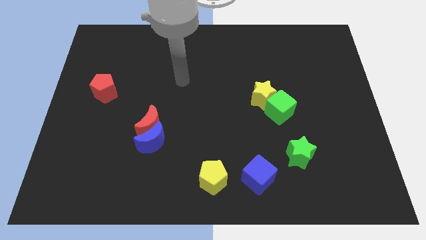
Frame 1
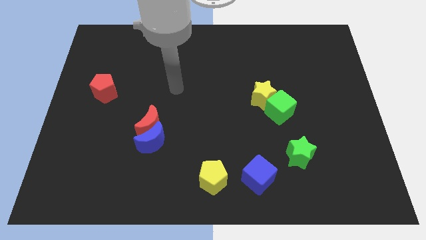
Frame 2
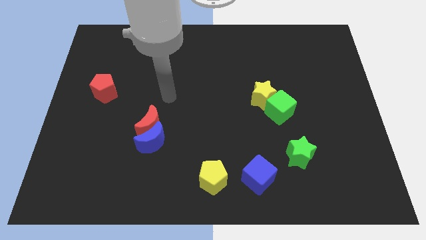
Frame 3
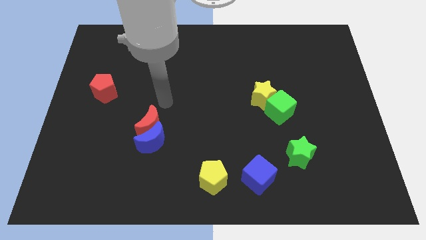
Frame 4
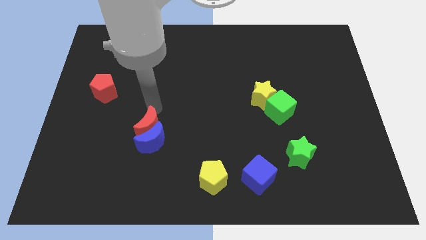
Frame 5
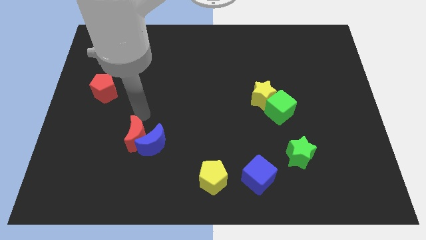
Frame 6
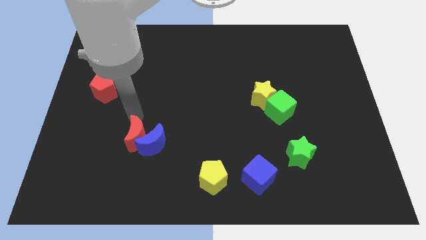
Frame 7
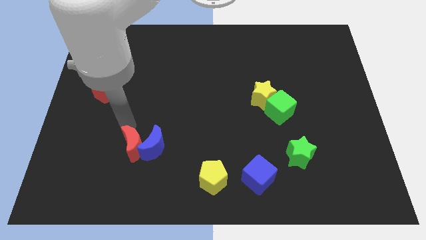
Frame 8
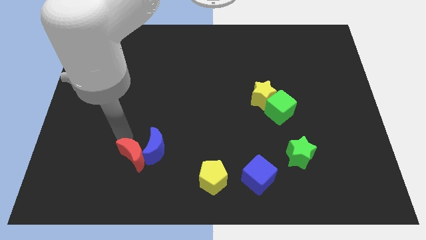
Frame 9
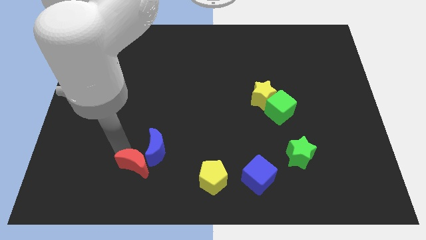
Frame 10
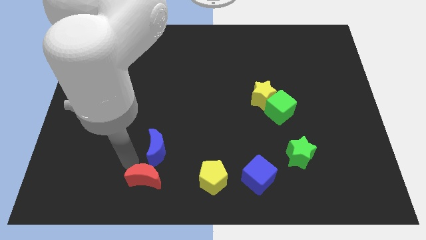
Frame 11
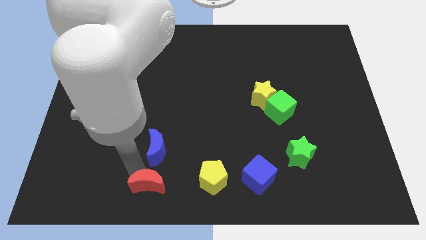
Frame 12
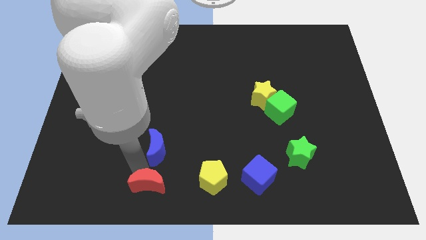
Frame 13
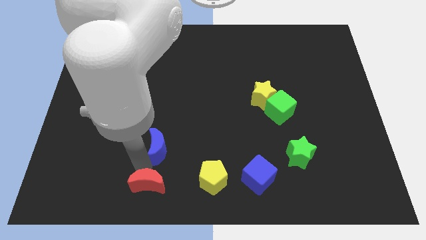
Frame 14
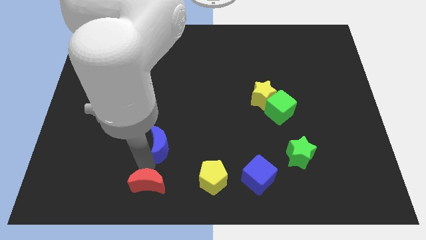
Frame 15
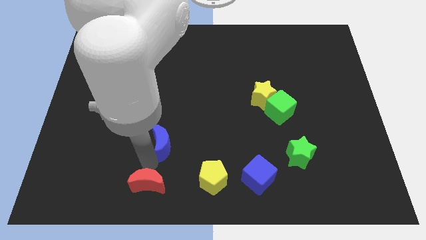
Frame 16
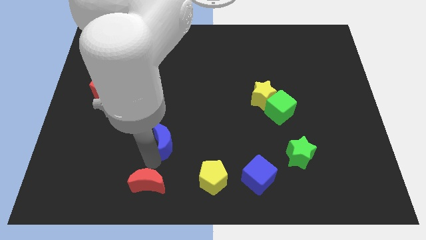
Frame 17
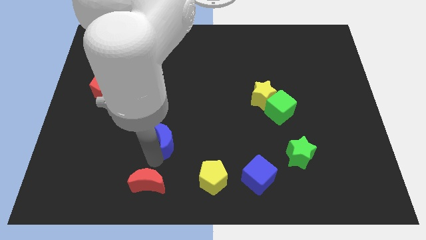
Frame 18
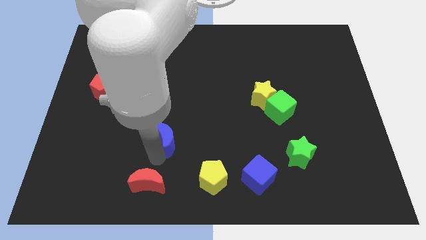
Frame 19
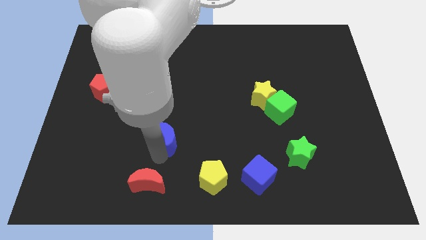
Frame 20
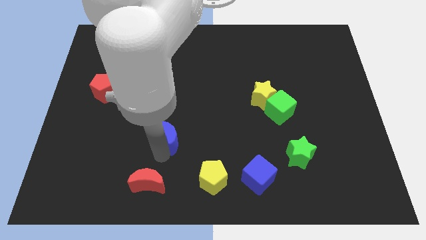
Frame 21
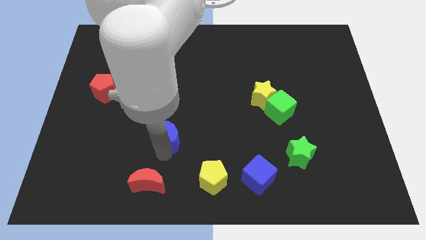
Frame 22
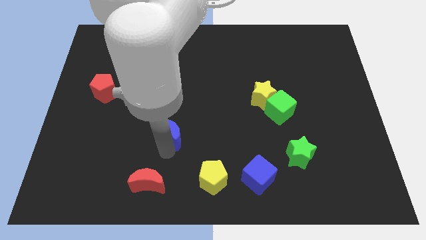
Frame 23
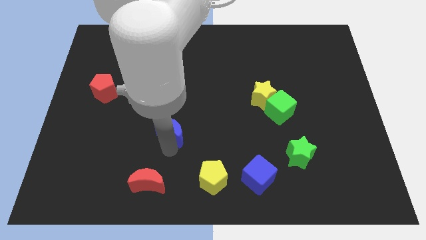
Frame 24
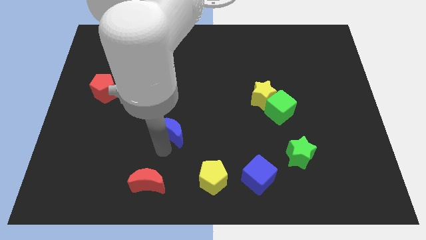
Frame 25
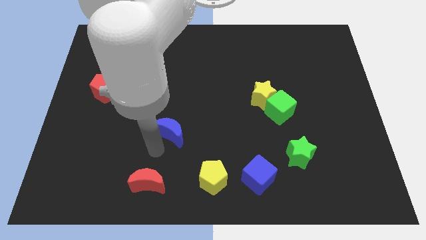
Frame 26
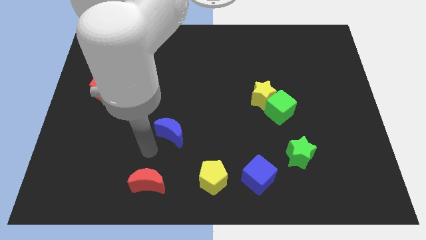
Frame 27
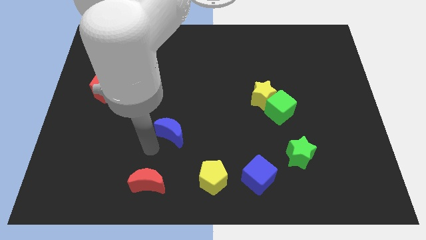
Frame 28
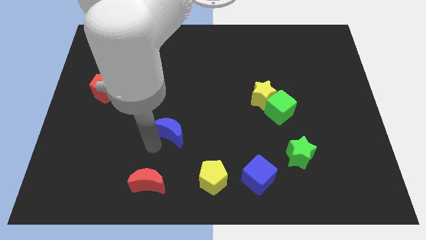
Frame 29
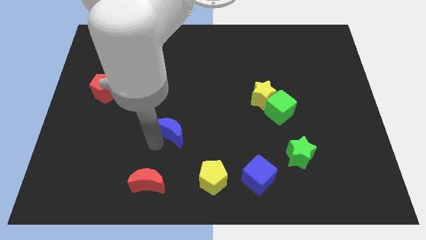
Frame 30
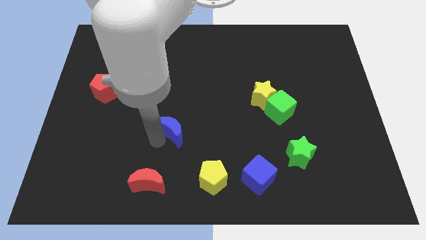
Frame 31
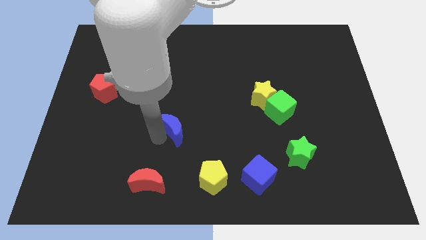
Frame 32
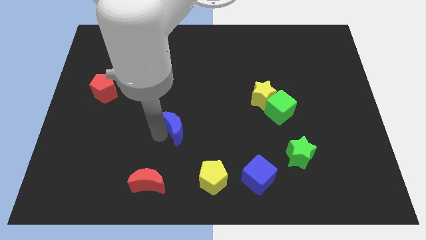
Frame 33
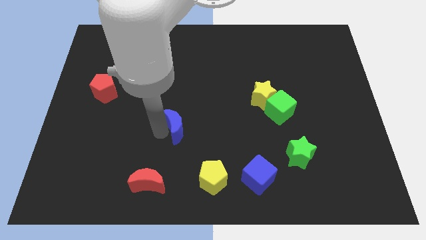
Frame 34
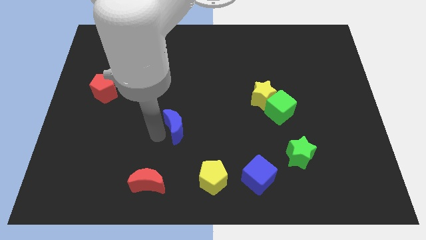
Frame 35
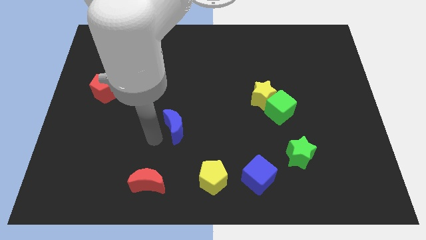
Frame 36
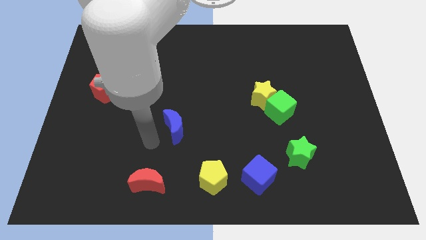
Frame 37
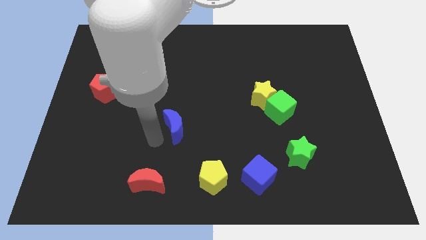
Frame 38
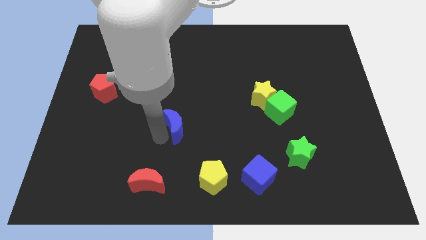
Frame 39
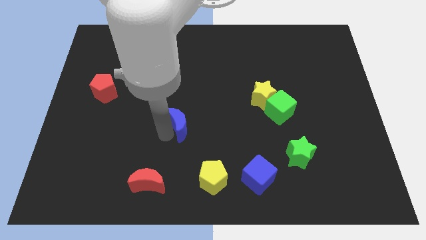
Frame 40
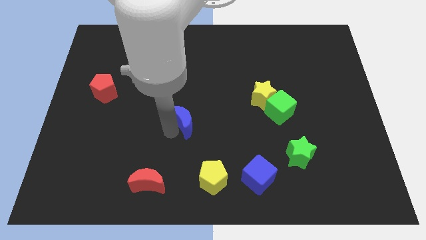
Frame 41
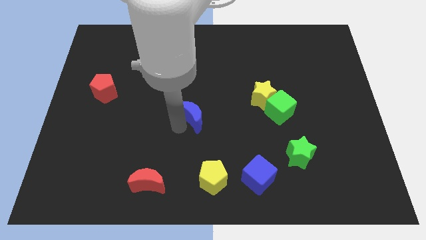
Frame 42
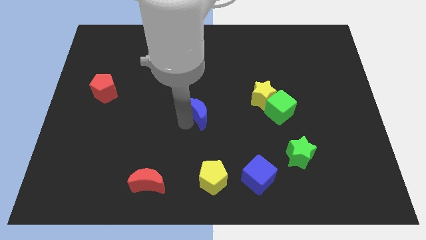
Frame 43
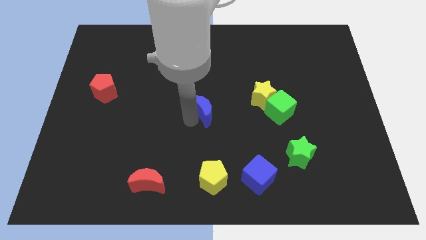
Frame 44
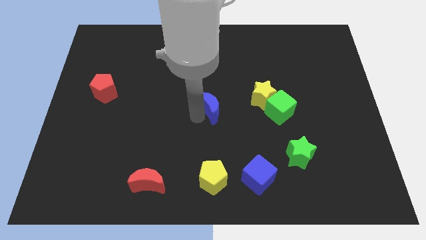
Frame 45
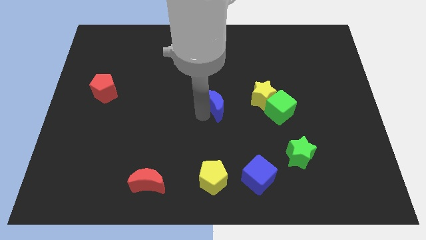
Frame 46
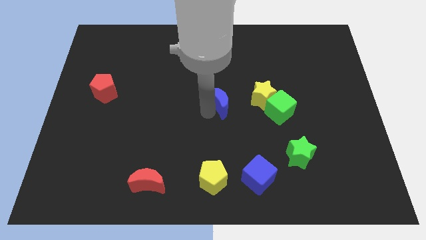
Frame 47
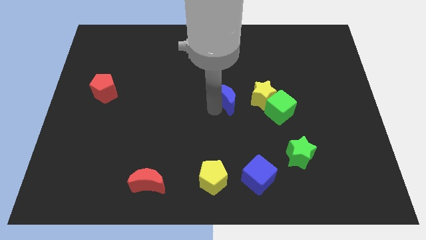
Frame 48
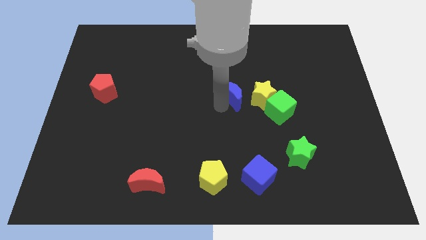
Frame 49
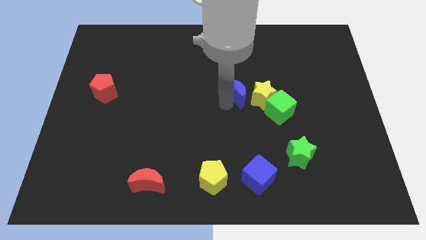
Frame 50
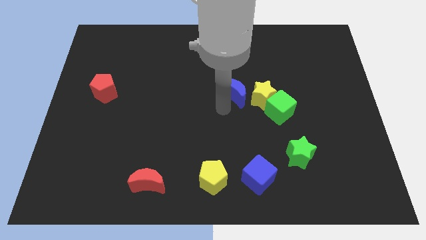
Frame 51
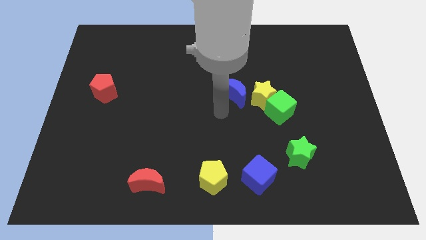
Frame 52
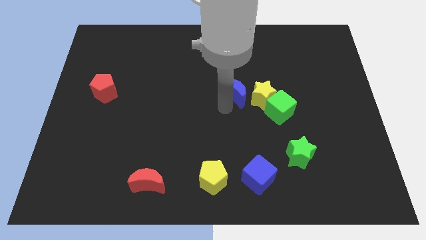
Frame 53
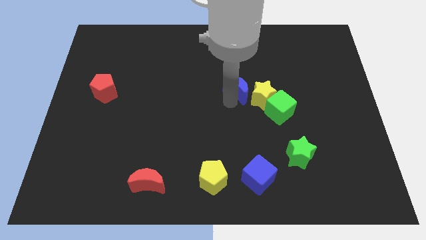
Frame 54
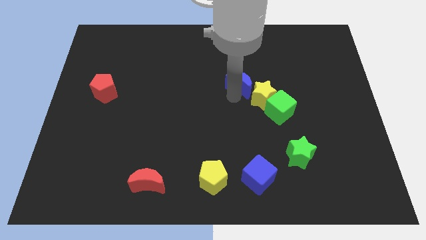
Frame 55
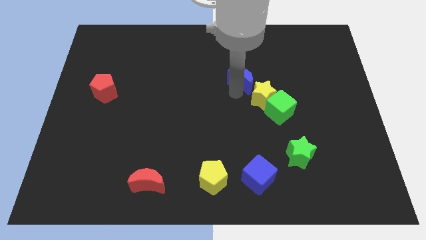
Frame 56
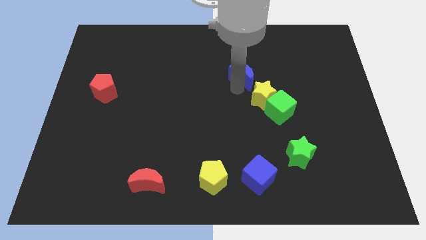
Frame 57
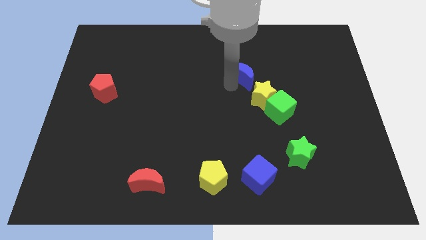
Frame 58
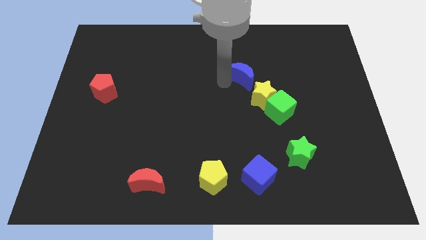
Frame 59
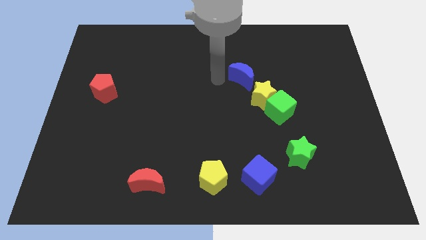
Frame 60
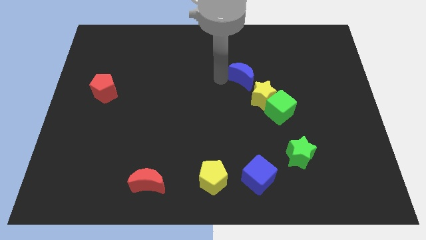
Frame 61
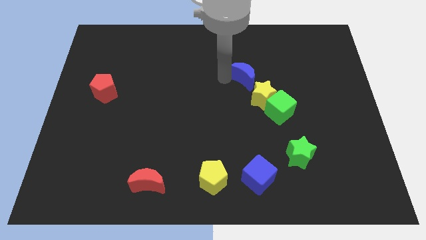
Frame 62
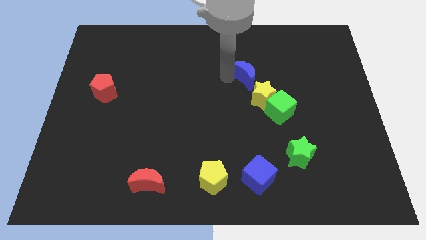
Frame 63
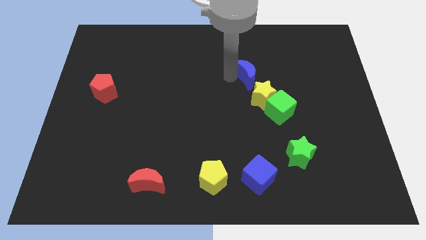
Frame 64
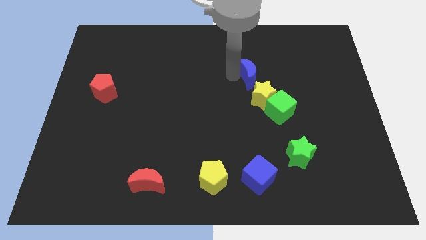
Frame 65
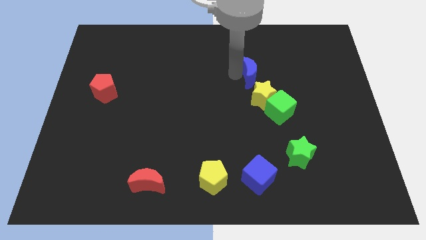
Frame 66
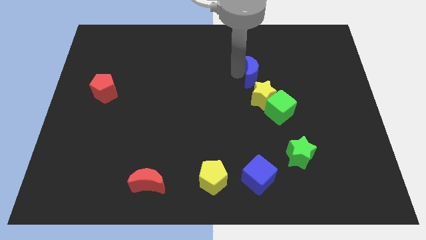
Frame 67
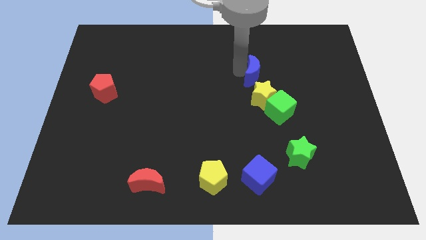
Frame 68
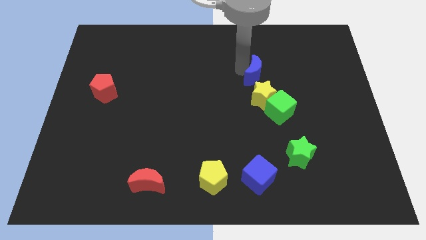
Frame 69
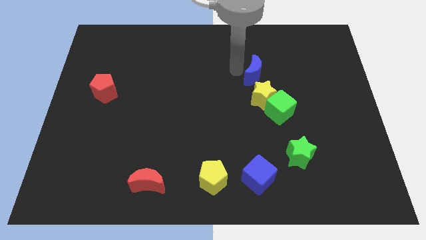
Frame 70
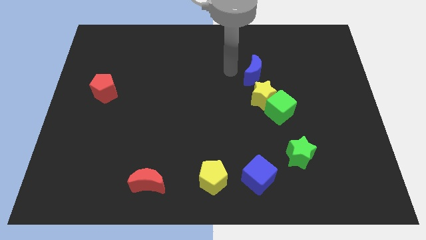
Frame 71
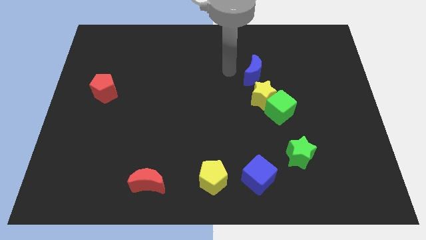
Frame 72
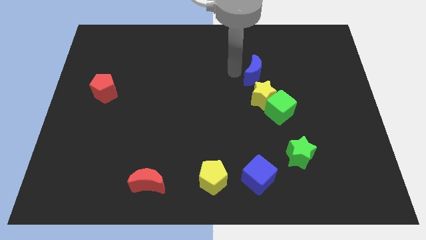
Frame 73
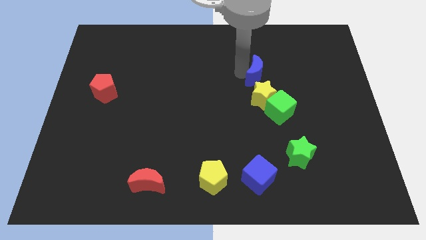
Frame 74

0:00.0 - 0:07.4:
slide the blue moon to the top of the green cube

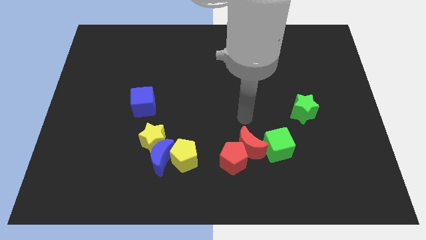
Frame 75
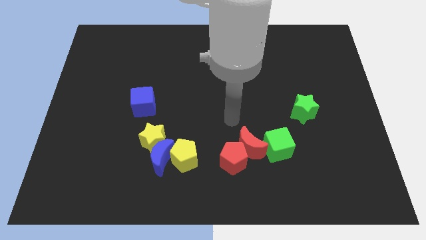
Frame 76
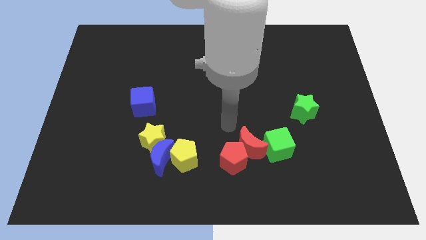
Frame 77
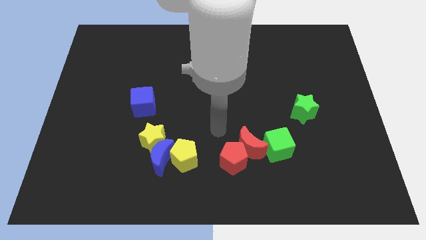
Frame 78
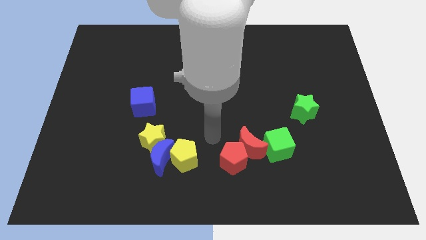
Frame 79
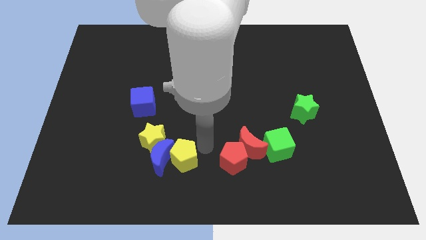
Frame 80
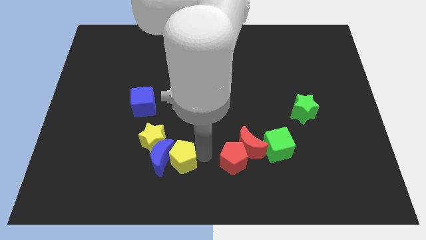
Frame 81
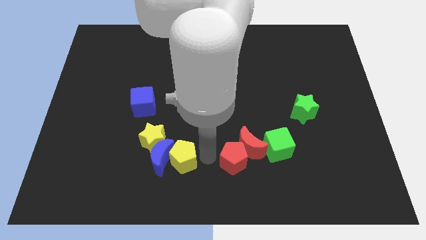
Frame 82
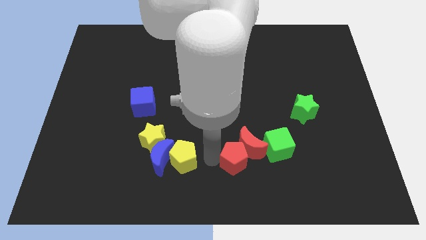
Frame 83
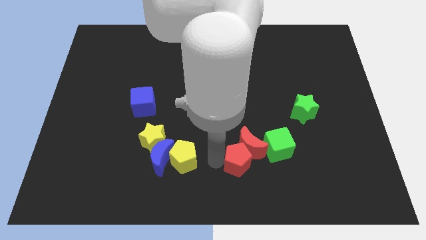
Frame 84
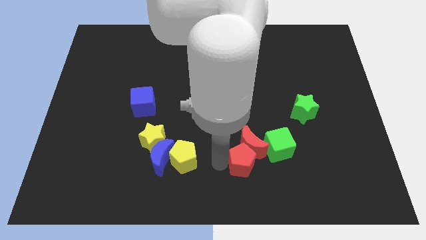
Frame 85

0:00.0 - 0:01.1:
slide the red pentagon diagonally down and to the right of the red moon
